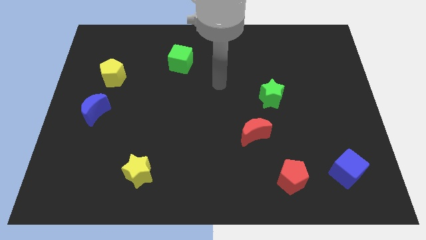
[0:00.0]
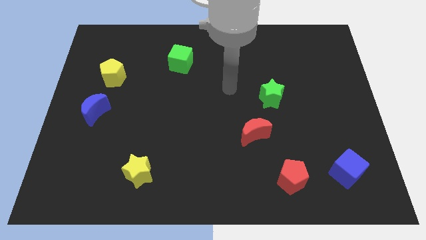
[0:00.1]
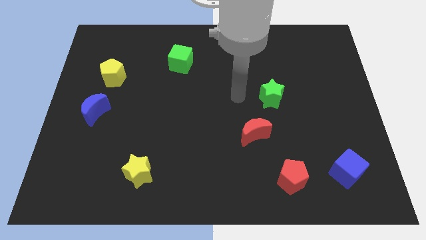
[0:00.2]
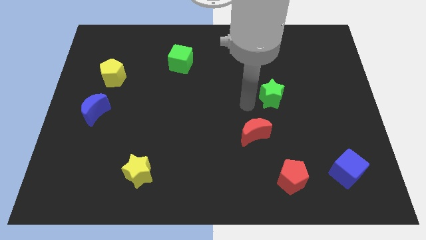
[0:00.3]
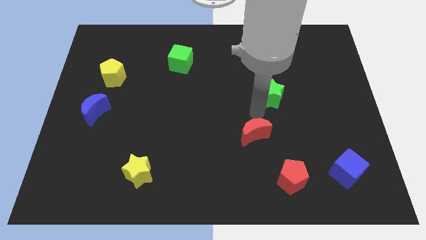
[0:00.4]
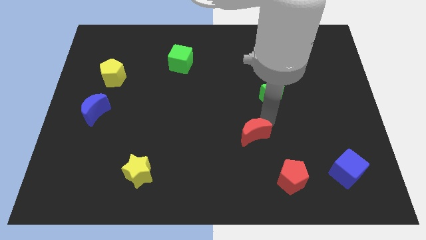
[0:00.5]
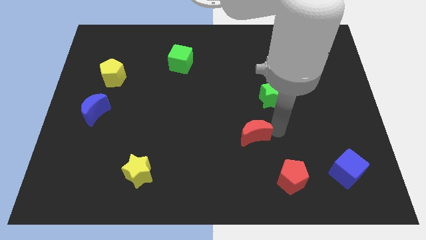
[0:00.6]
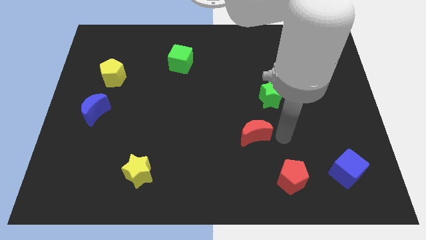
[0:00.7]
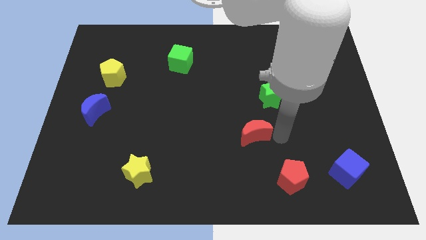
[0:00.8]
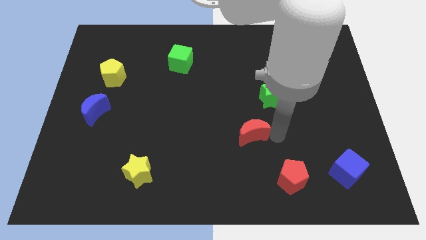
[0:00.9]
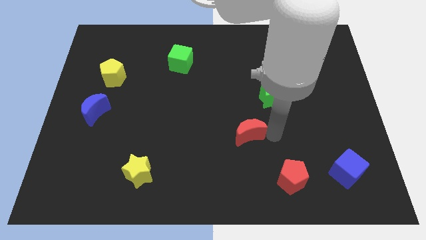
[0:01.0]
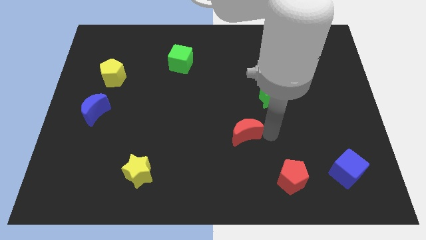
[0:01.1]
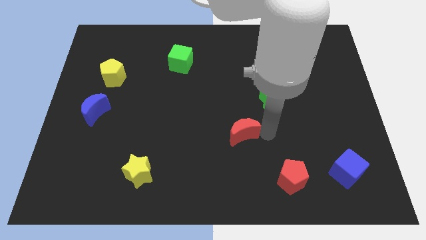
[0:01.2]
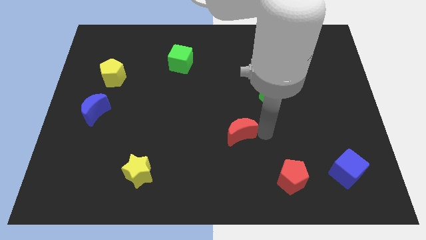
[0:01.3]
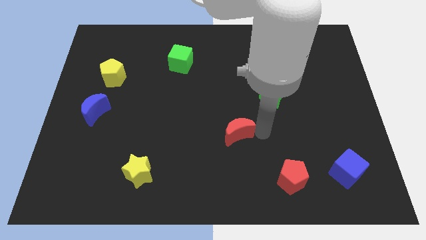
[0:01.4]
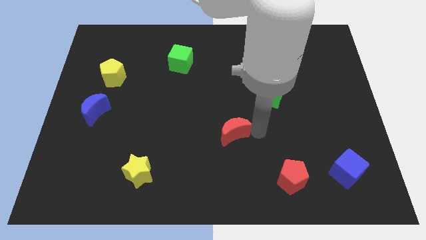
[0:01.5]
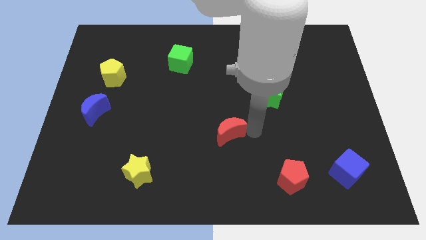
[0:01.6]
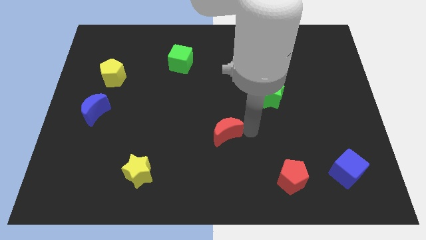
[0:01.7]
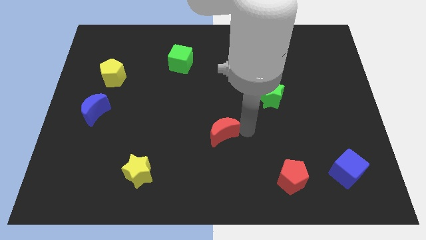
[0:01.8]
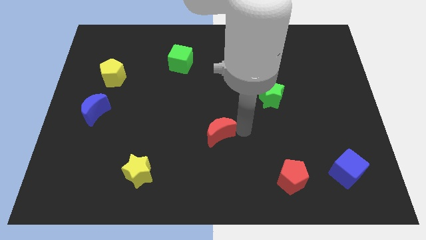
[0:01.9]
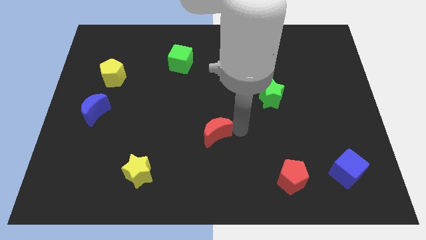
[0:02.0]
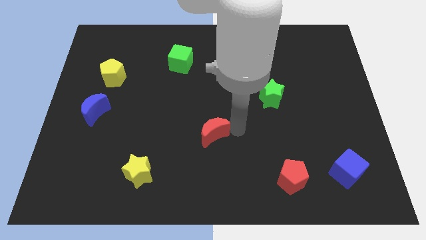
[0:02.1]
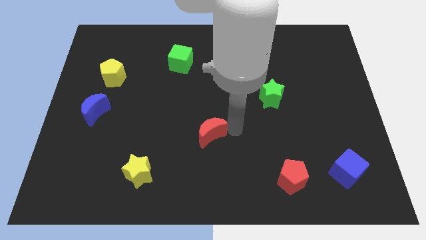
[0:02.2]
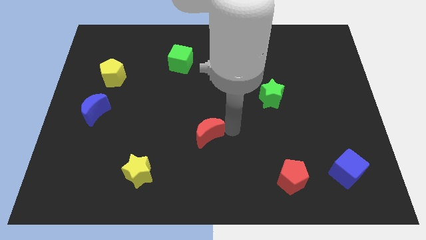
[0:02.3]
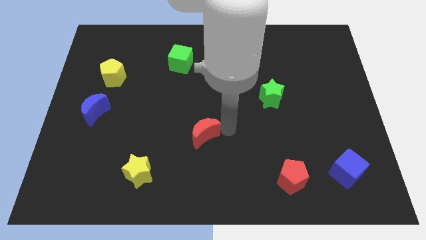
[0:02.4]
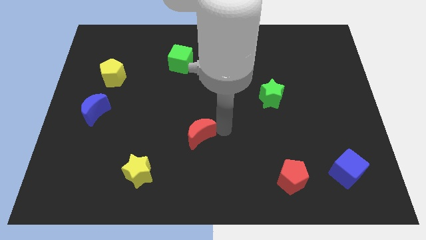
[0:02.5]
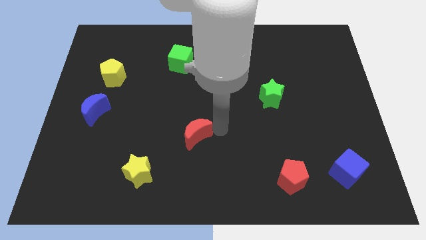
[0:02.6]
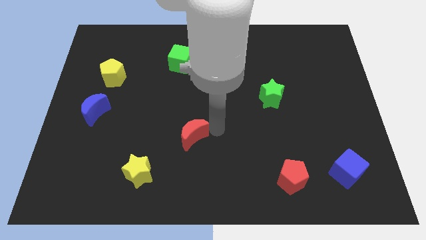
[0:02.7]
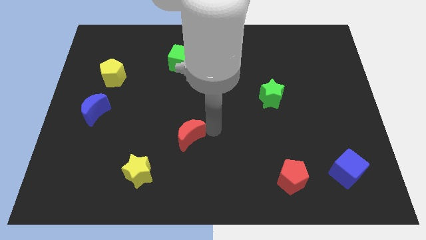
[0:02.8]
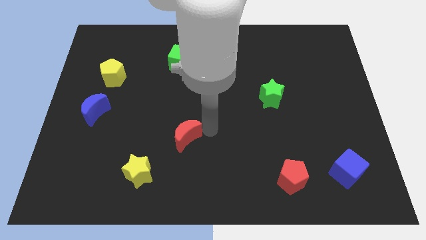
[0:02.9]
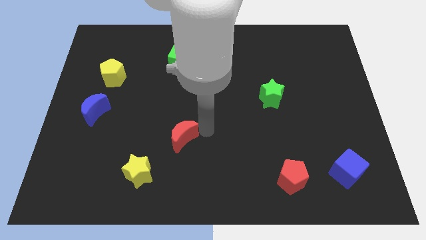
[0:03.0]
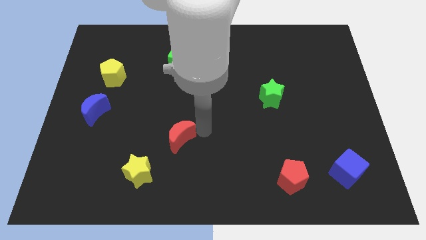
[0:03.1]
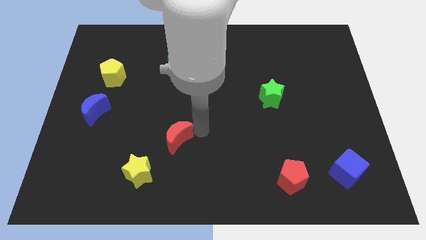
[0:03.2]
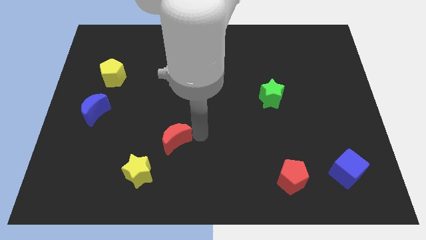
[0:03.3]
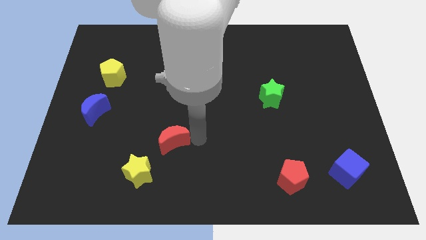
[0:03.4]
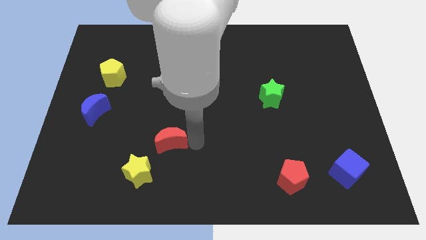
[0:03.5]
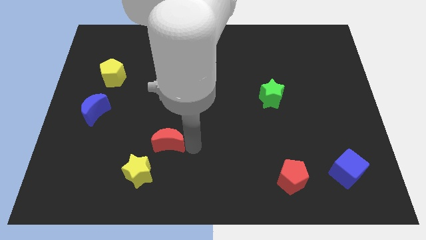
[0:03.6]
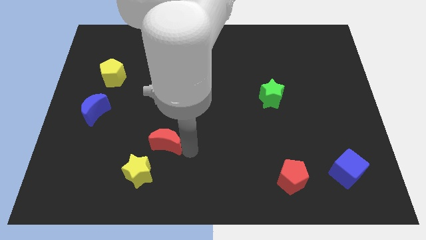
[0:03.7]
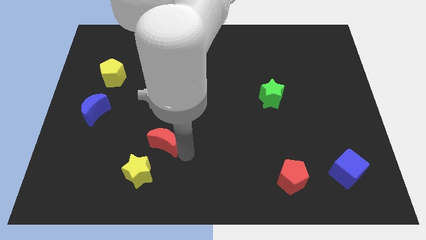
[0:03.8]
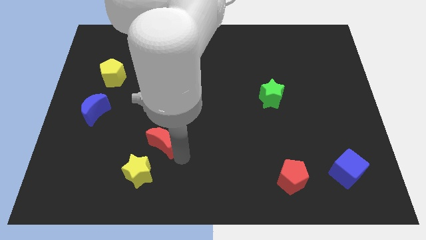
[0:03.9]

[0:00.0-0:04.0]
move the red moon to the left

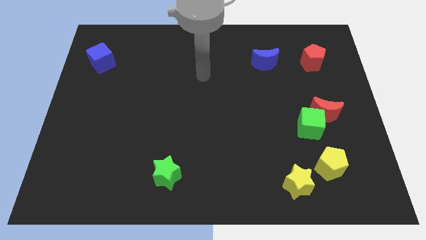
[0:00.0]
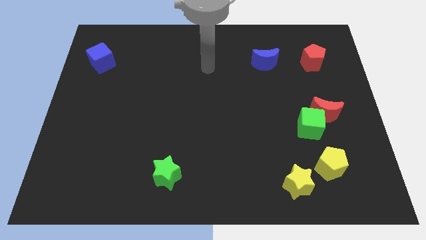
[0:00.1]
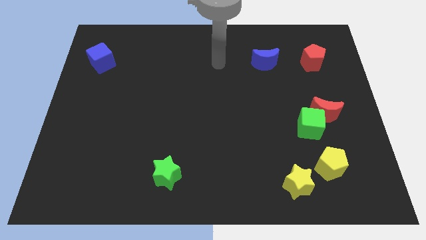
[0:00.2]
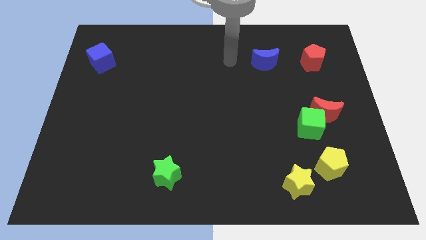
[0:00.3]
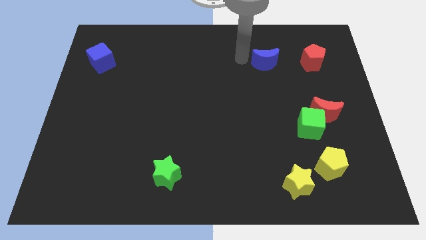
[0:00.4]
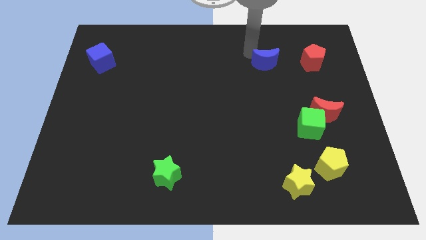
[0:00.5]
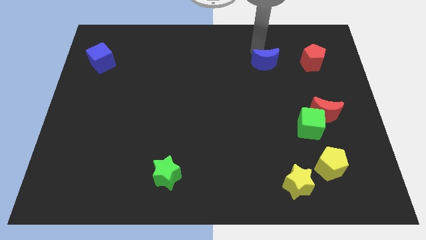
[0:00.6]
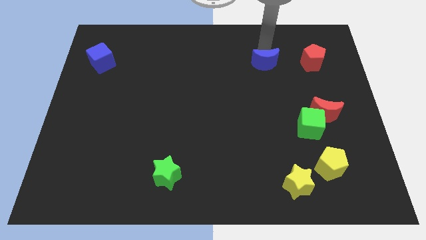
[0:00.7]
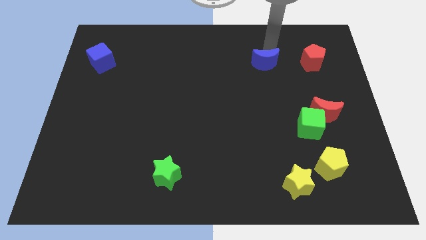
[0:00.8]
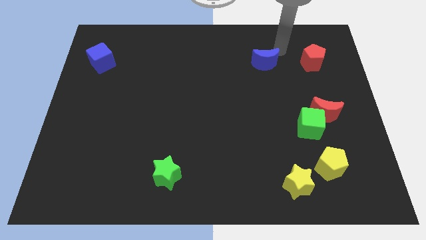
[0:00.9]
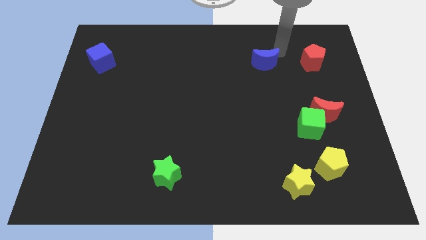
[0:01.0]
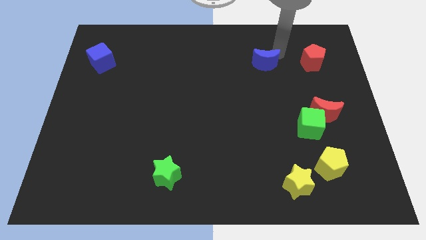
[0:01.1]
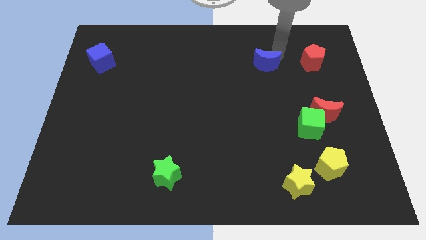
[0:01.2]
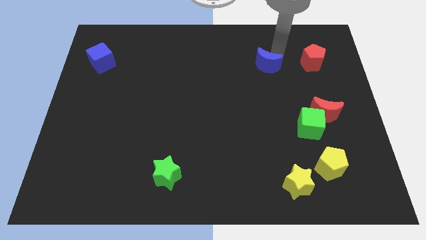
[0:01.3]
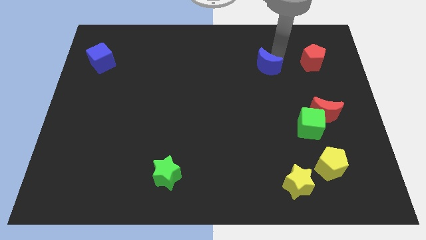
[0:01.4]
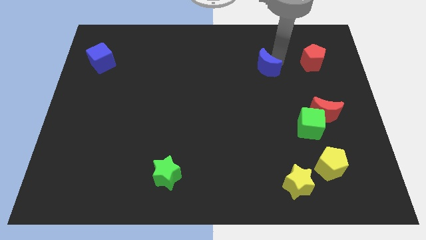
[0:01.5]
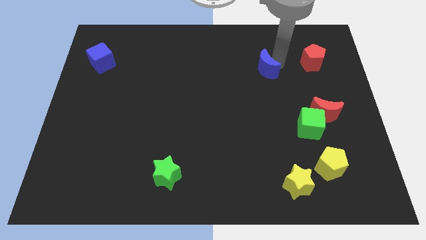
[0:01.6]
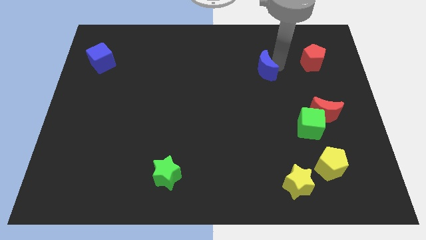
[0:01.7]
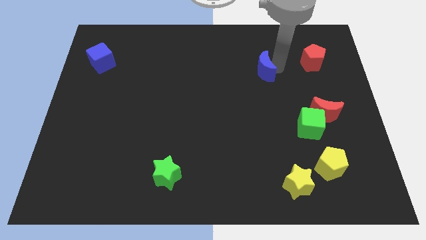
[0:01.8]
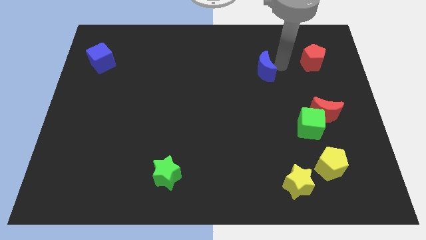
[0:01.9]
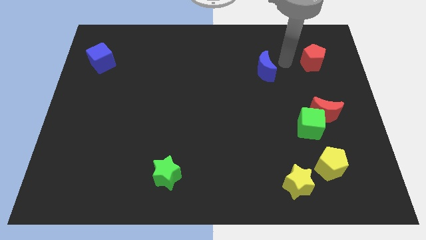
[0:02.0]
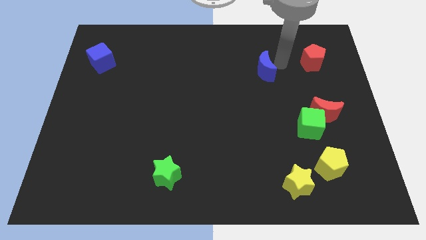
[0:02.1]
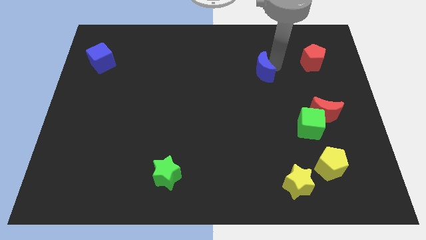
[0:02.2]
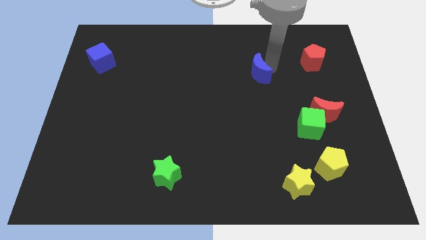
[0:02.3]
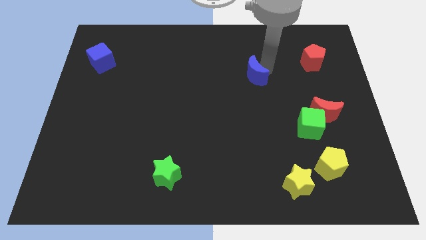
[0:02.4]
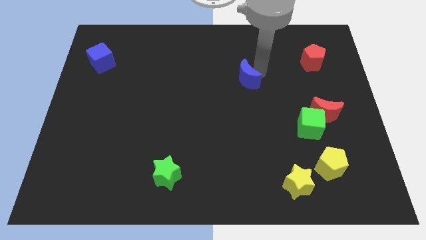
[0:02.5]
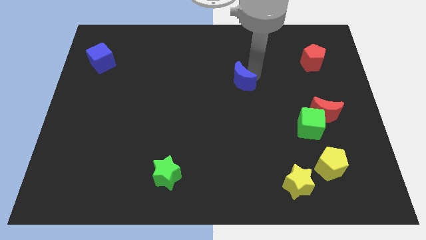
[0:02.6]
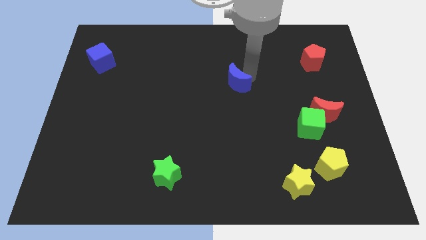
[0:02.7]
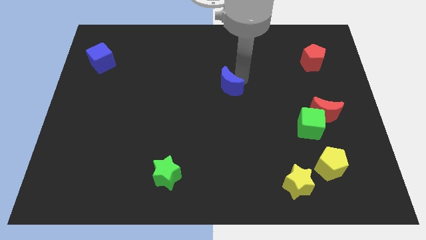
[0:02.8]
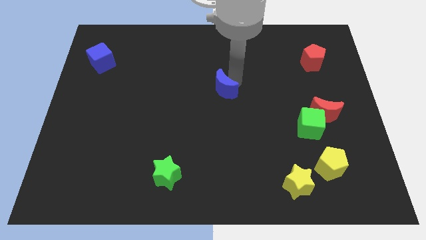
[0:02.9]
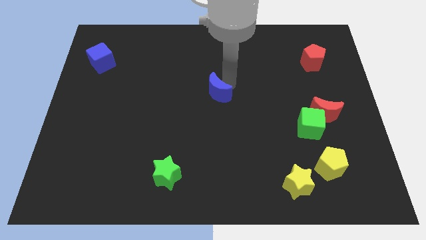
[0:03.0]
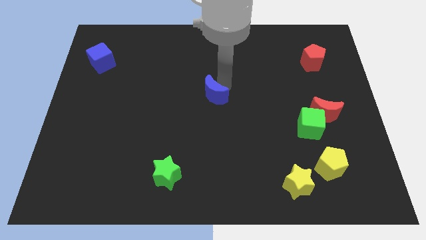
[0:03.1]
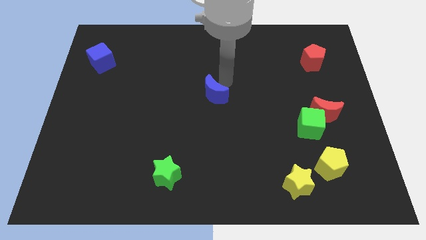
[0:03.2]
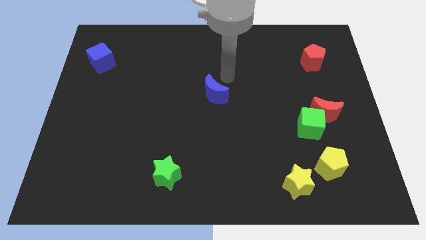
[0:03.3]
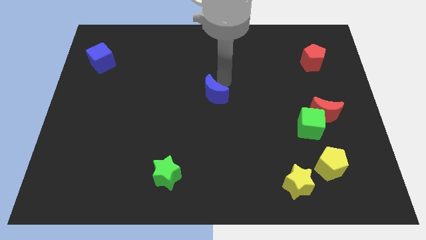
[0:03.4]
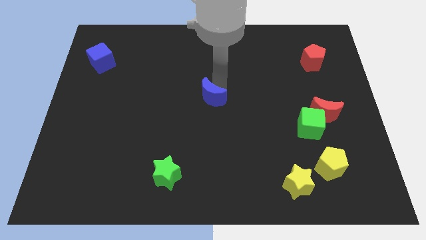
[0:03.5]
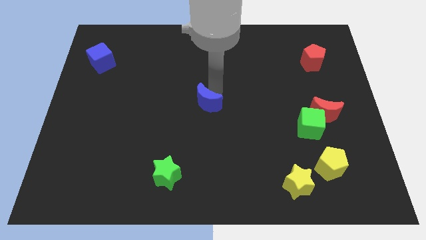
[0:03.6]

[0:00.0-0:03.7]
slide the blue moon diagonally downwards and to the left

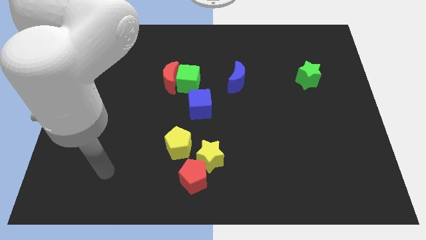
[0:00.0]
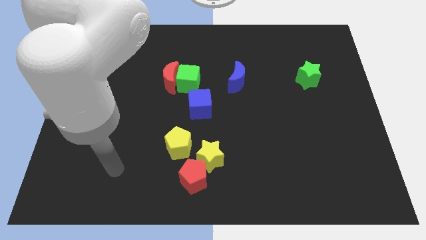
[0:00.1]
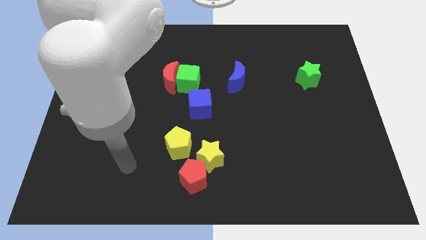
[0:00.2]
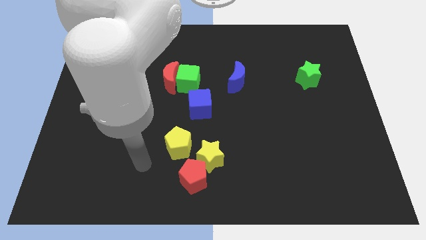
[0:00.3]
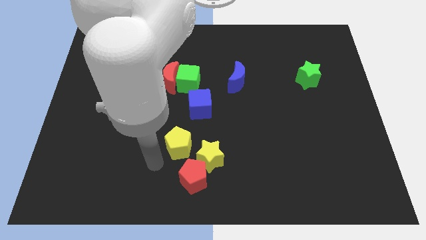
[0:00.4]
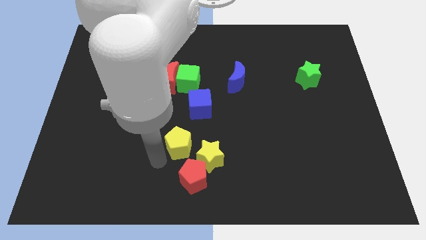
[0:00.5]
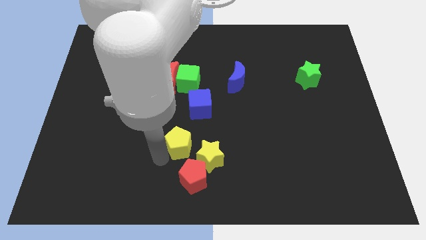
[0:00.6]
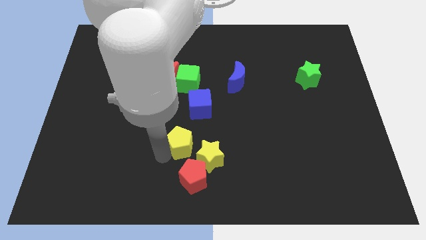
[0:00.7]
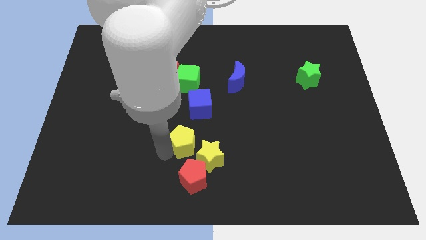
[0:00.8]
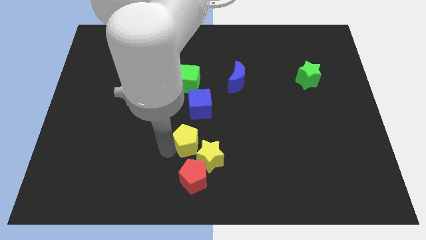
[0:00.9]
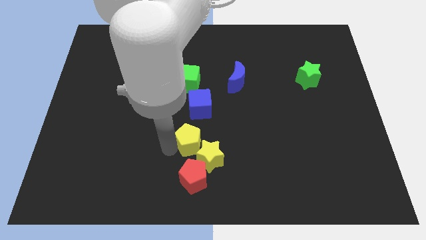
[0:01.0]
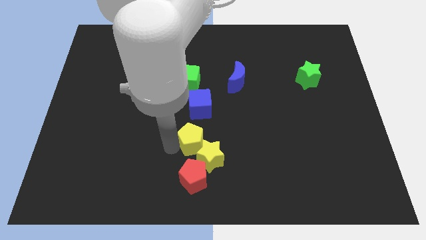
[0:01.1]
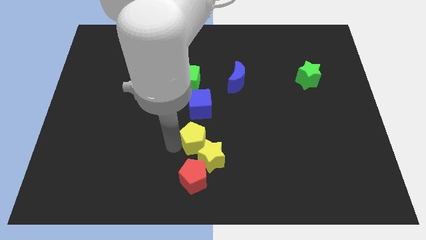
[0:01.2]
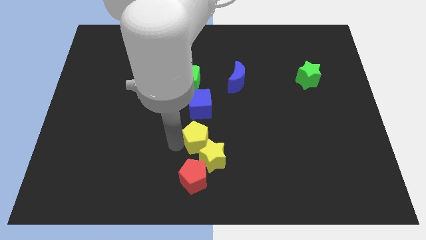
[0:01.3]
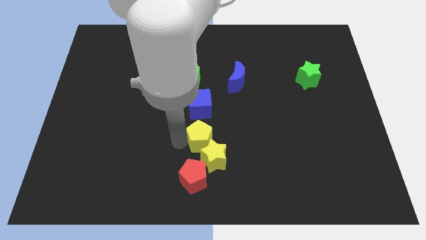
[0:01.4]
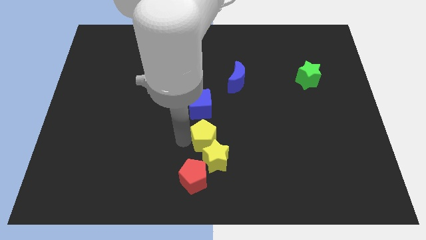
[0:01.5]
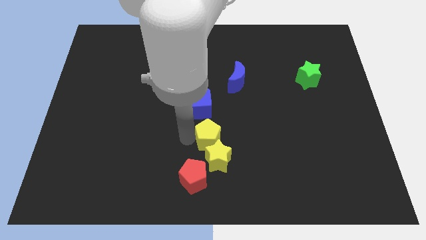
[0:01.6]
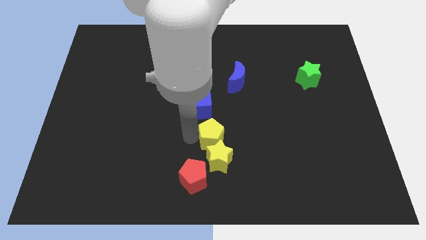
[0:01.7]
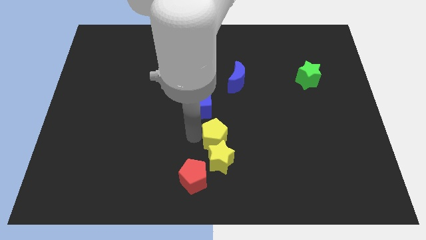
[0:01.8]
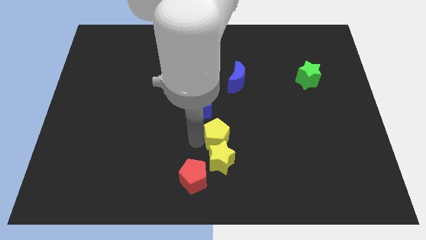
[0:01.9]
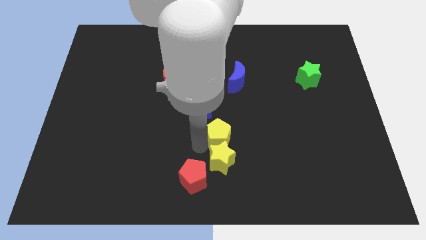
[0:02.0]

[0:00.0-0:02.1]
move the yellow pentagon a little bit up and right
